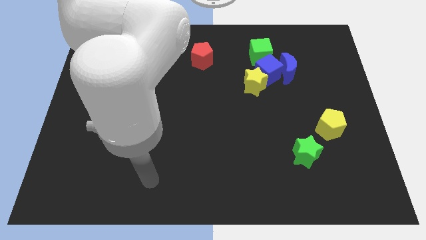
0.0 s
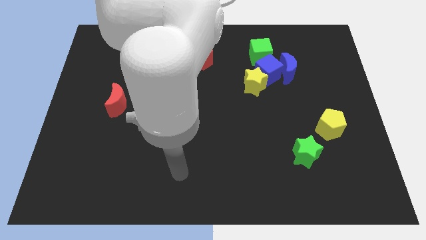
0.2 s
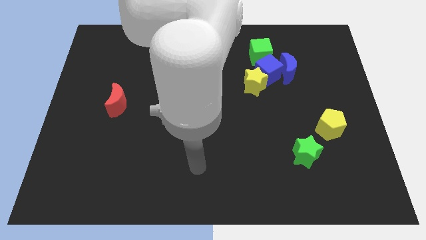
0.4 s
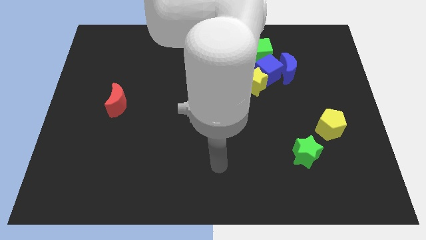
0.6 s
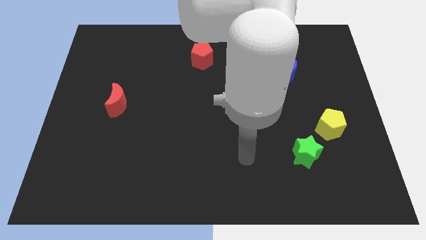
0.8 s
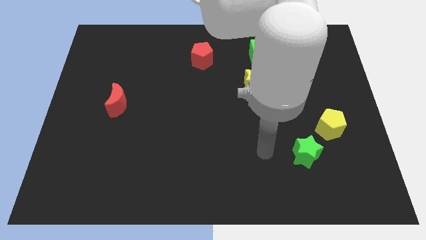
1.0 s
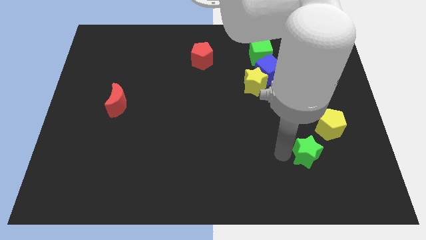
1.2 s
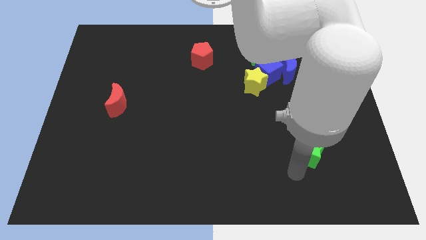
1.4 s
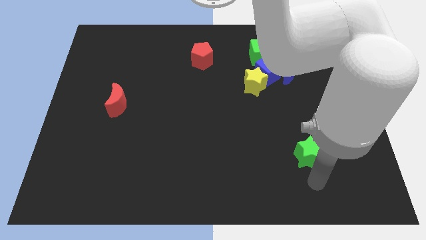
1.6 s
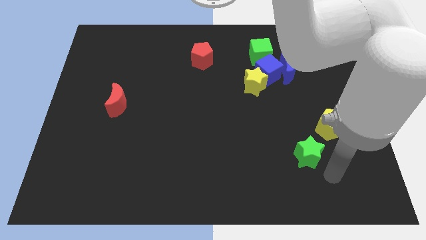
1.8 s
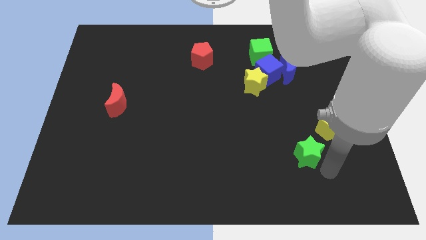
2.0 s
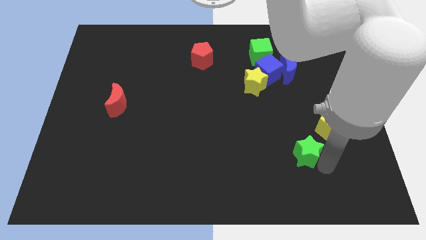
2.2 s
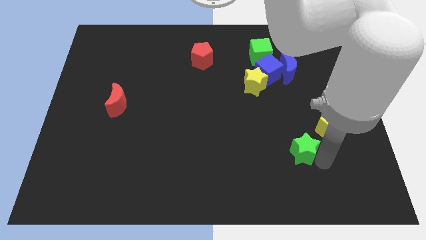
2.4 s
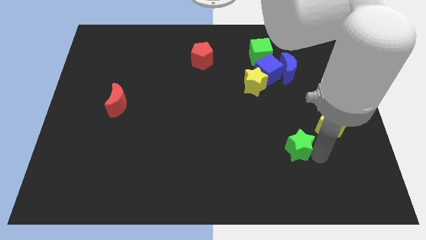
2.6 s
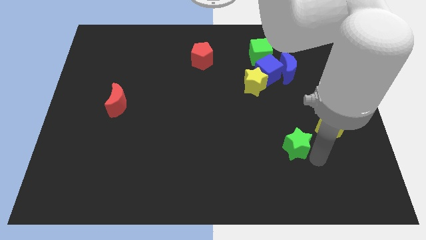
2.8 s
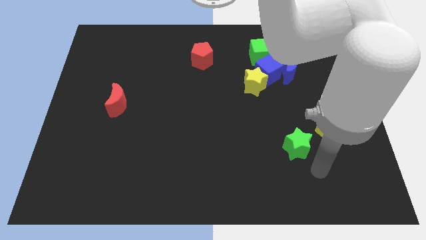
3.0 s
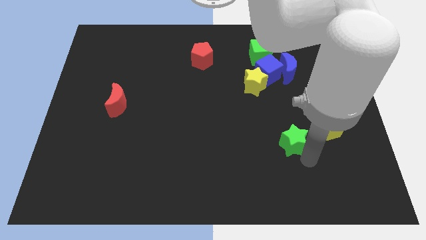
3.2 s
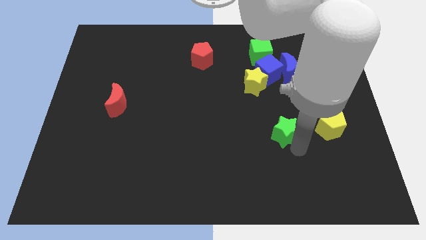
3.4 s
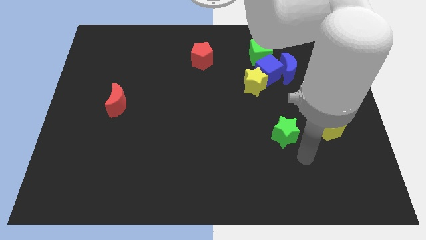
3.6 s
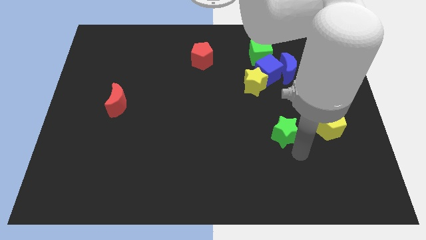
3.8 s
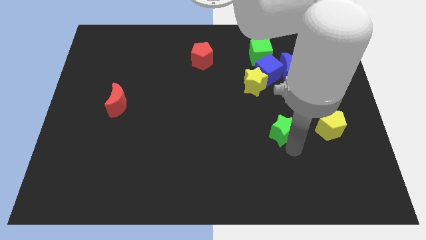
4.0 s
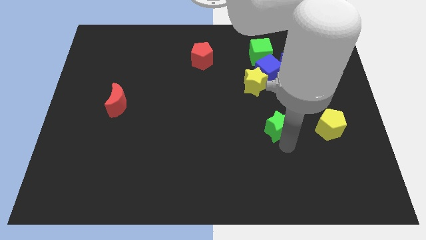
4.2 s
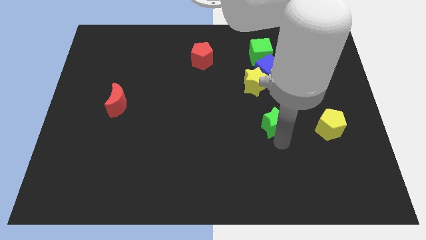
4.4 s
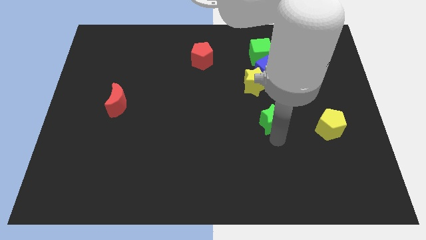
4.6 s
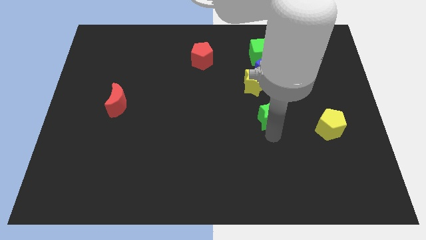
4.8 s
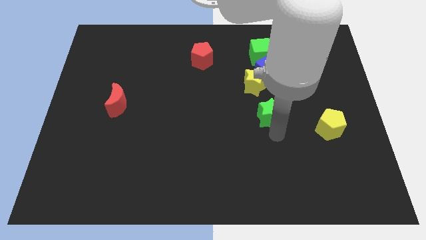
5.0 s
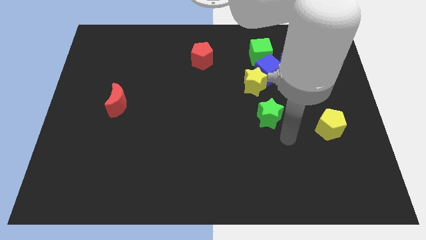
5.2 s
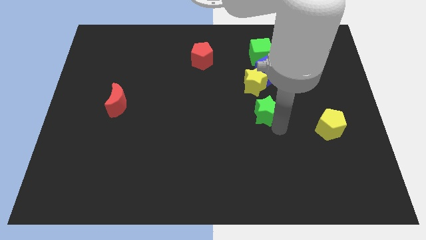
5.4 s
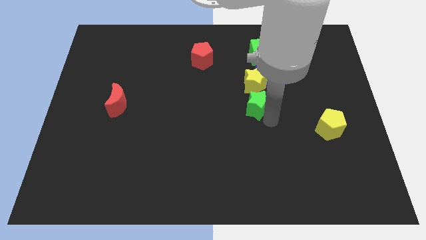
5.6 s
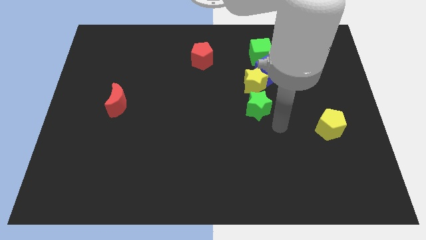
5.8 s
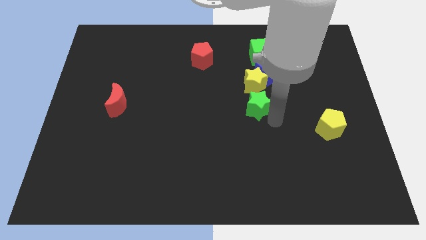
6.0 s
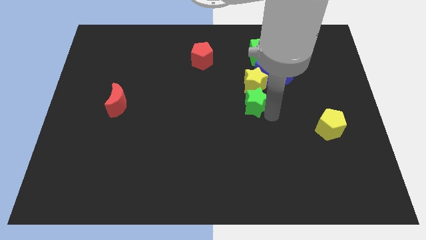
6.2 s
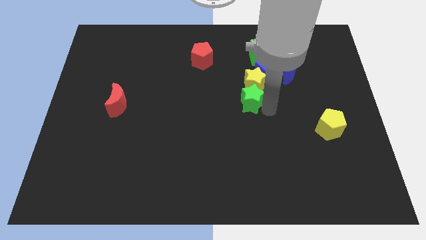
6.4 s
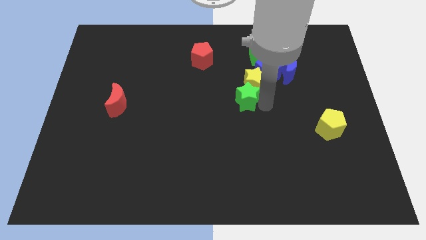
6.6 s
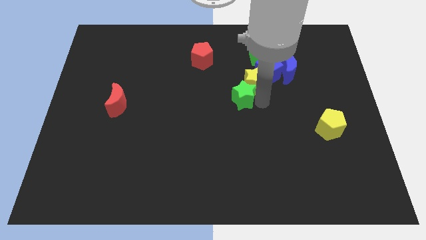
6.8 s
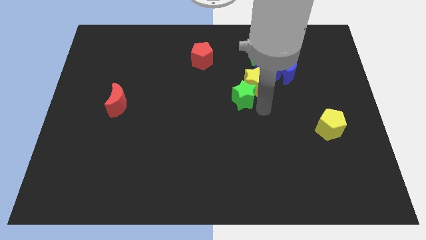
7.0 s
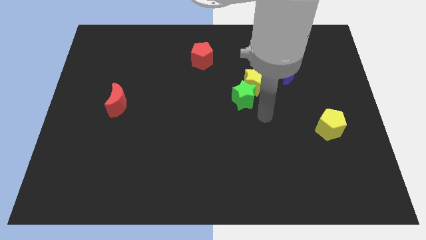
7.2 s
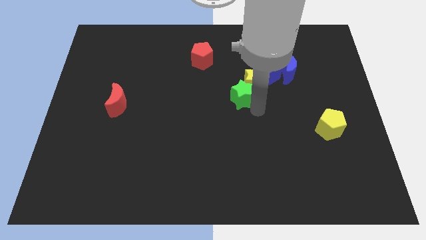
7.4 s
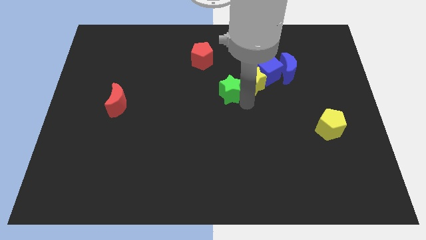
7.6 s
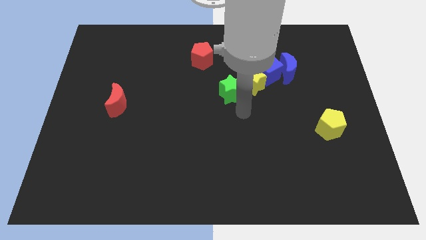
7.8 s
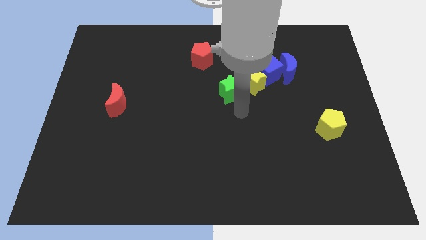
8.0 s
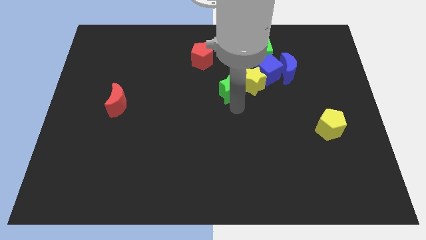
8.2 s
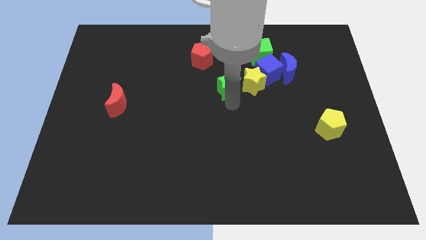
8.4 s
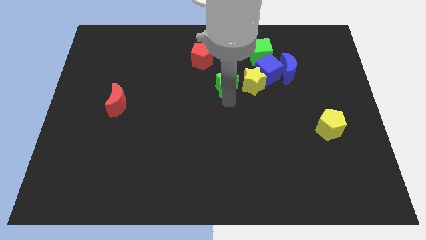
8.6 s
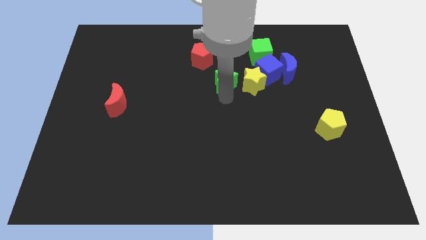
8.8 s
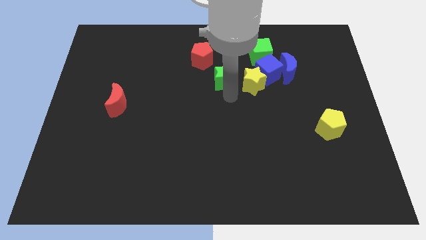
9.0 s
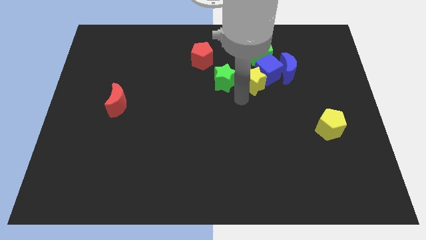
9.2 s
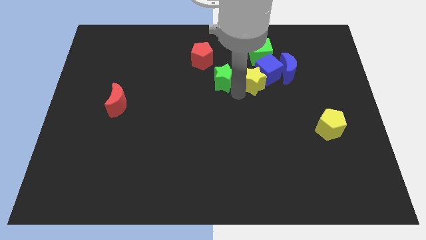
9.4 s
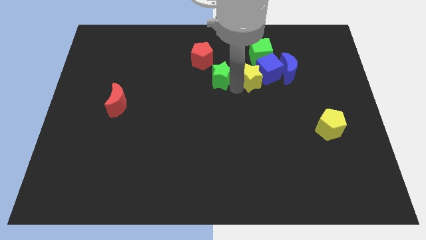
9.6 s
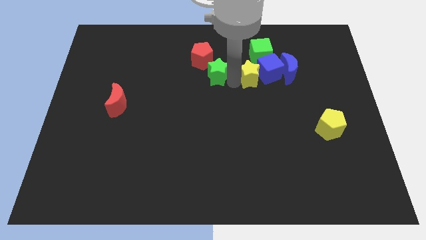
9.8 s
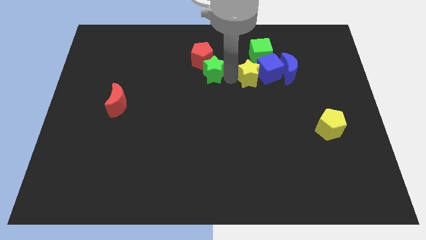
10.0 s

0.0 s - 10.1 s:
put the green star next to the red pentagon

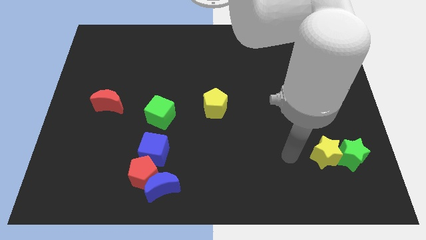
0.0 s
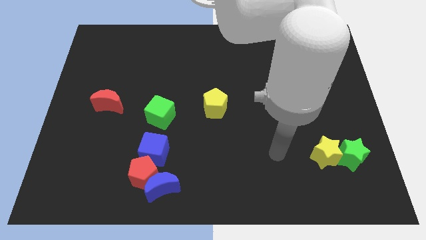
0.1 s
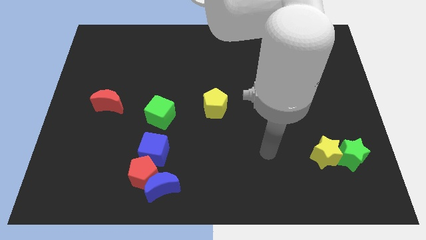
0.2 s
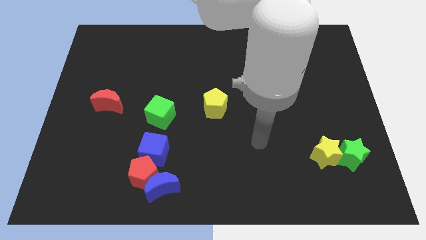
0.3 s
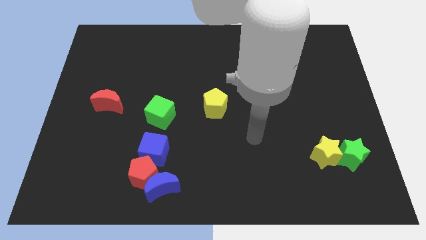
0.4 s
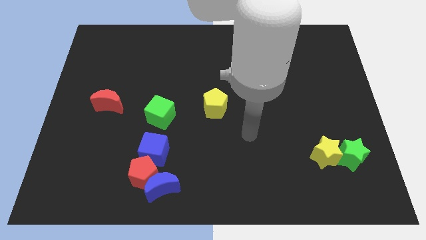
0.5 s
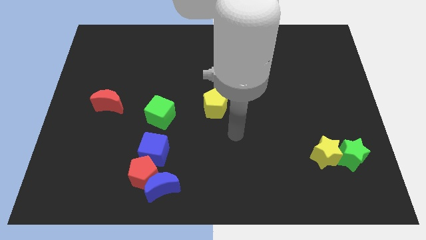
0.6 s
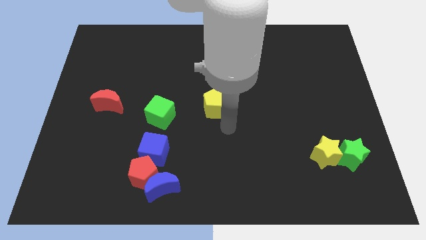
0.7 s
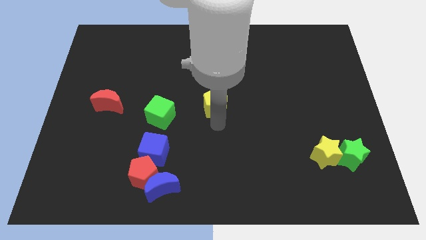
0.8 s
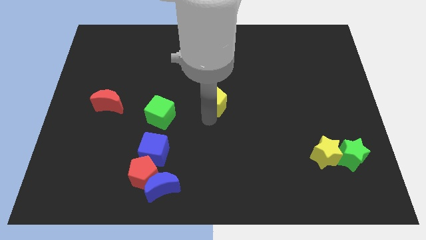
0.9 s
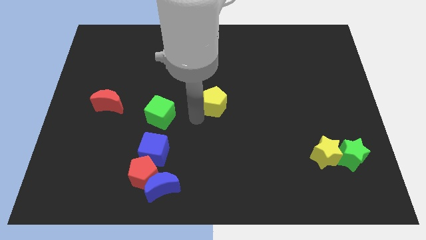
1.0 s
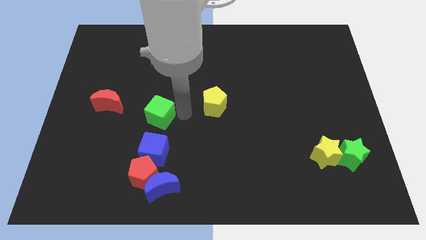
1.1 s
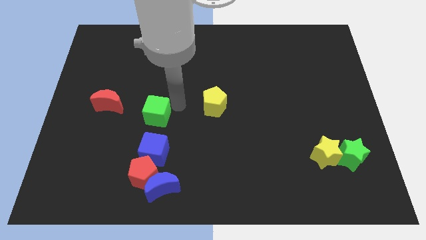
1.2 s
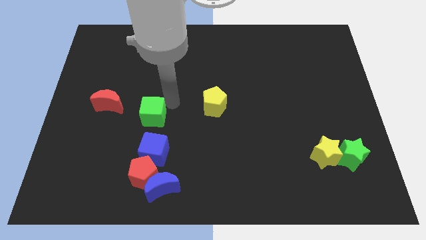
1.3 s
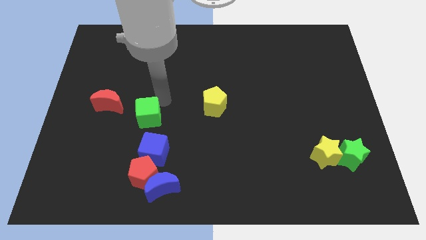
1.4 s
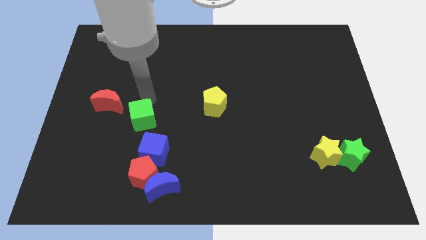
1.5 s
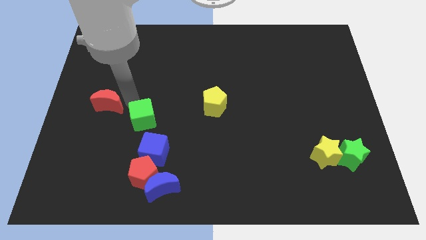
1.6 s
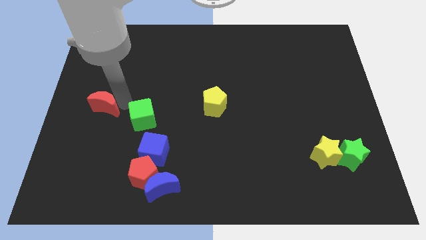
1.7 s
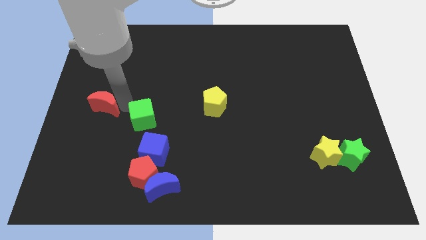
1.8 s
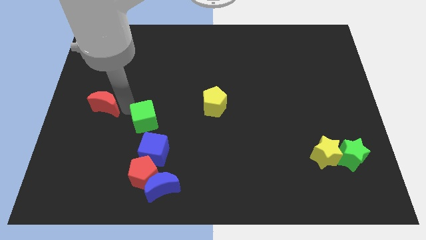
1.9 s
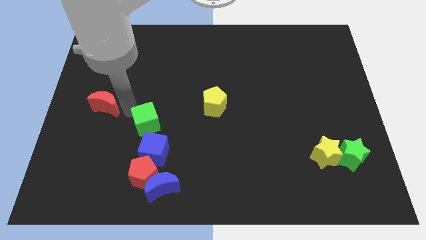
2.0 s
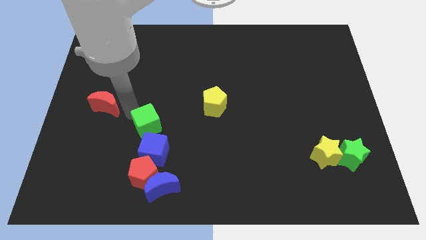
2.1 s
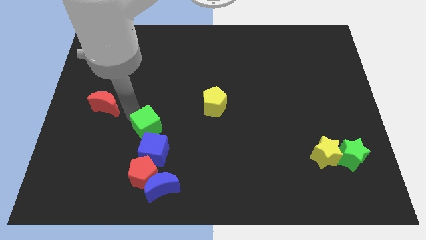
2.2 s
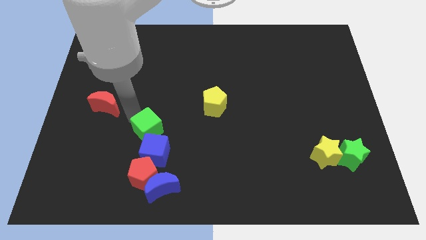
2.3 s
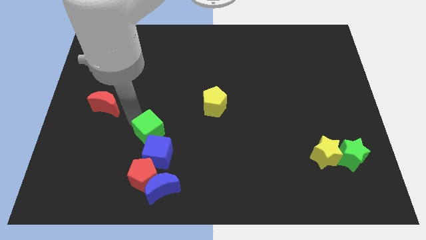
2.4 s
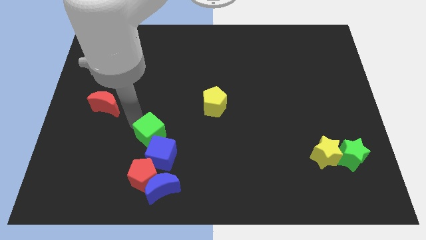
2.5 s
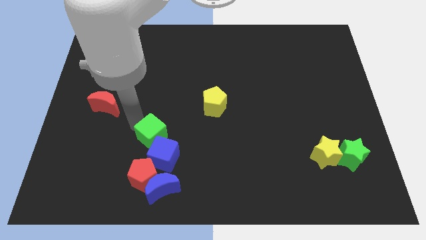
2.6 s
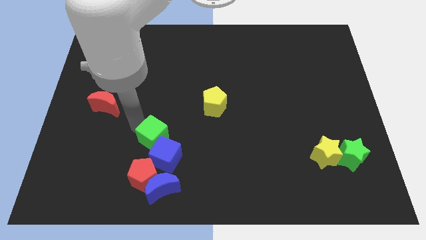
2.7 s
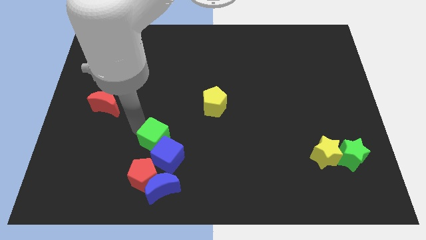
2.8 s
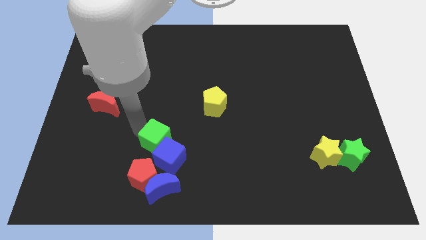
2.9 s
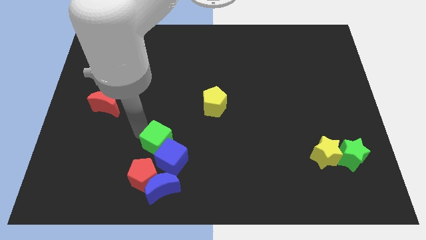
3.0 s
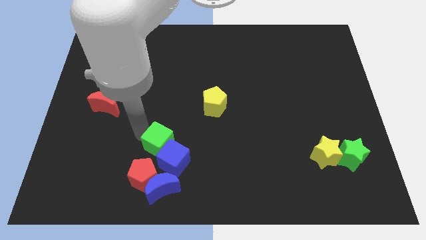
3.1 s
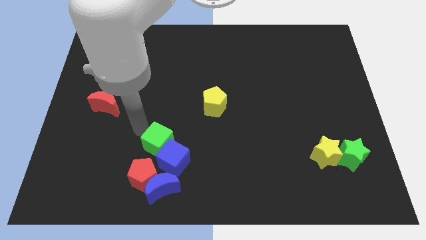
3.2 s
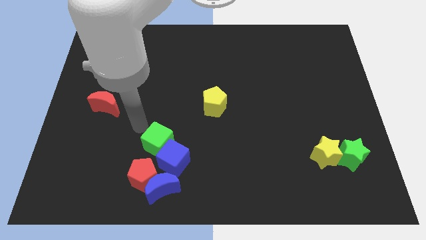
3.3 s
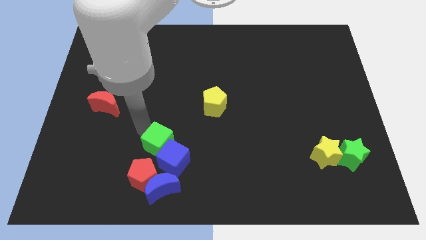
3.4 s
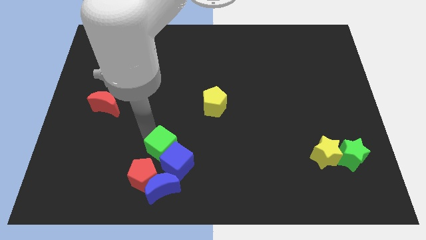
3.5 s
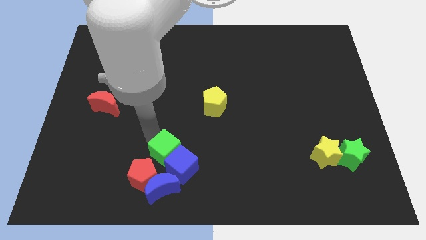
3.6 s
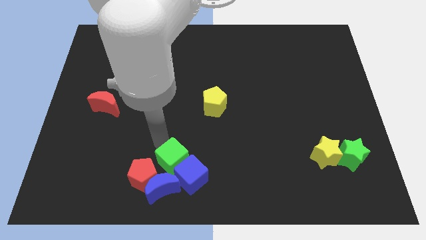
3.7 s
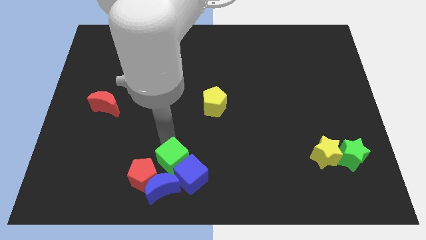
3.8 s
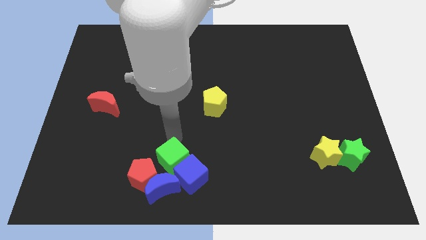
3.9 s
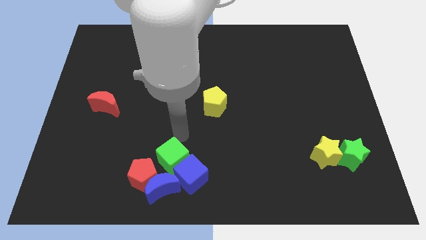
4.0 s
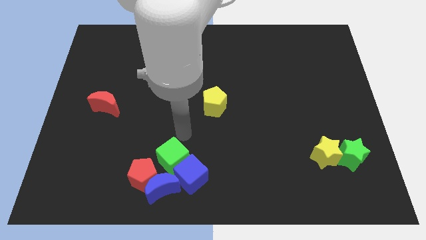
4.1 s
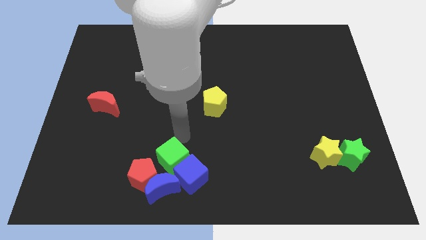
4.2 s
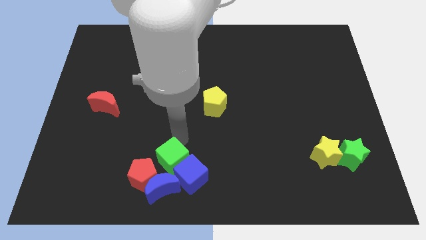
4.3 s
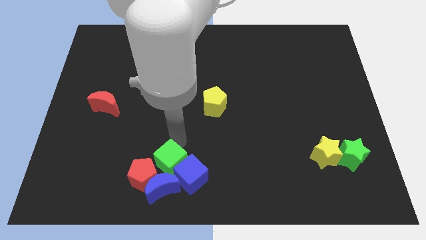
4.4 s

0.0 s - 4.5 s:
move the green cube towards the blue moon
